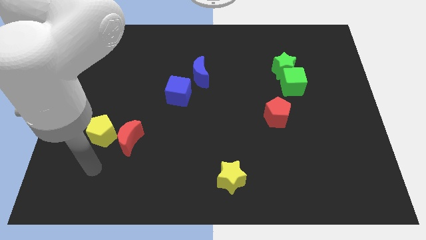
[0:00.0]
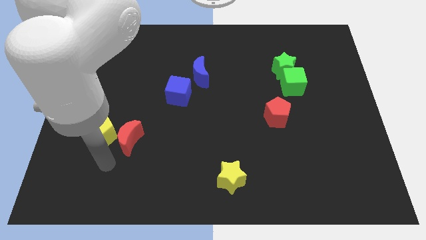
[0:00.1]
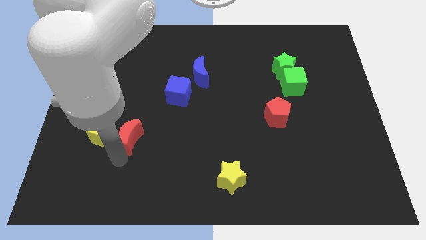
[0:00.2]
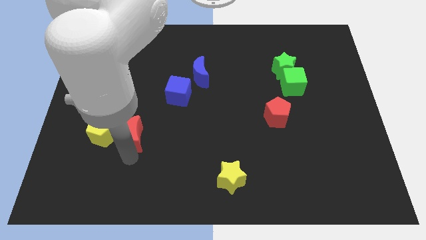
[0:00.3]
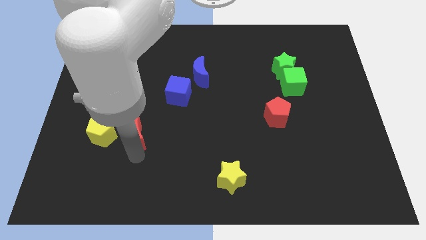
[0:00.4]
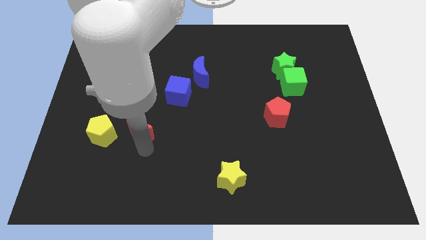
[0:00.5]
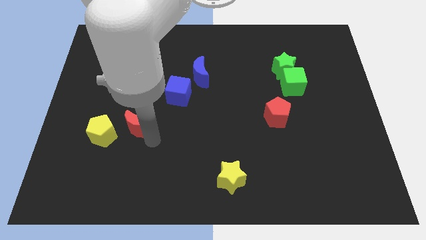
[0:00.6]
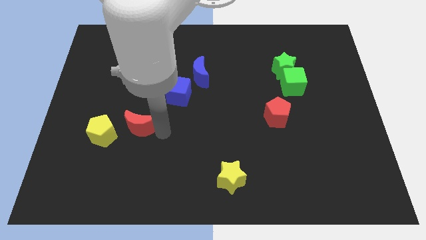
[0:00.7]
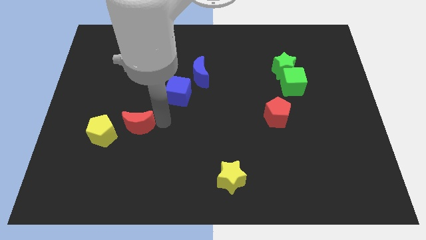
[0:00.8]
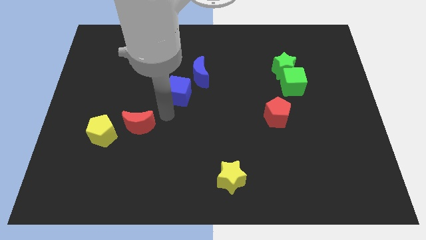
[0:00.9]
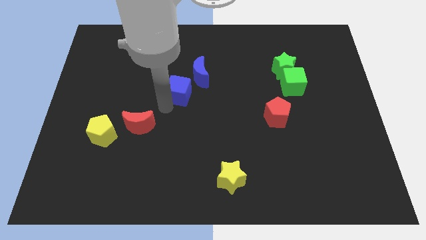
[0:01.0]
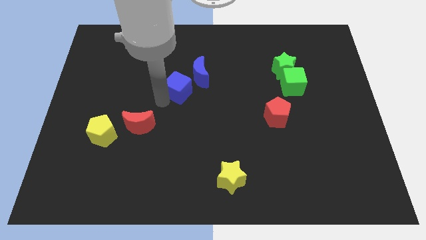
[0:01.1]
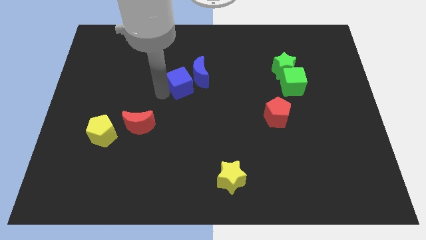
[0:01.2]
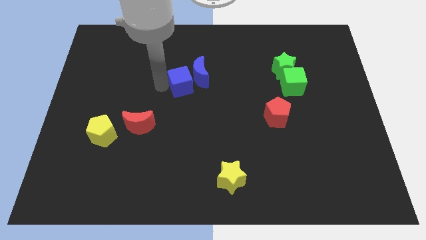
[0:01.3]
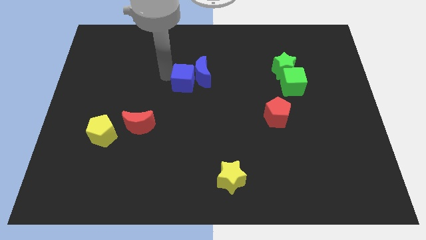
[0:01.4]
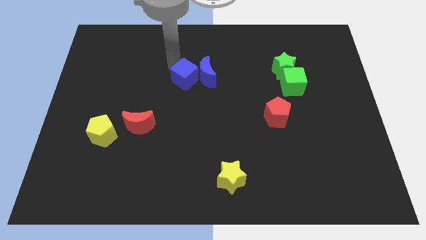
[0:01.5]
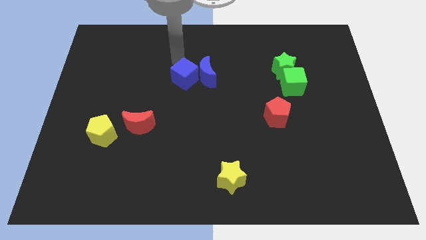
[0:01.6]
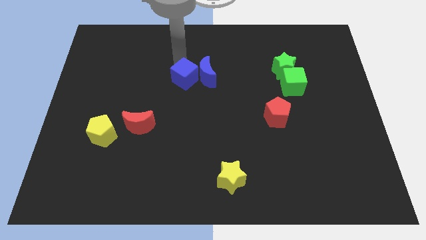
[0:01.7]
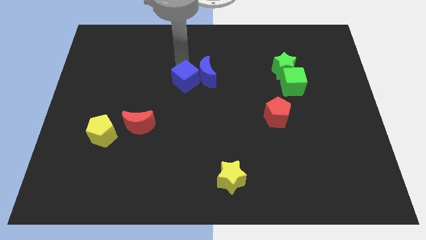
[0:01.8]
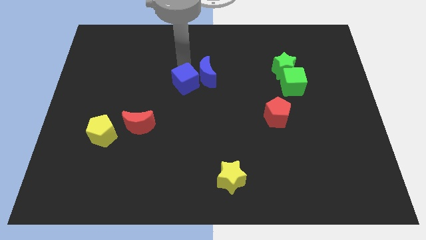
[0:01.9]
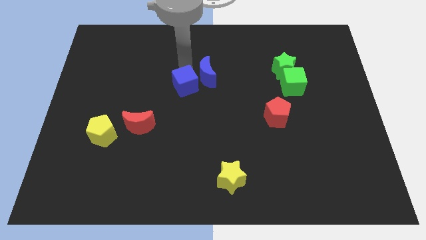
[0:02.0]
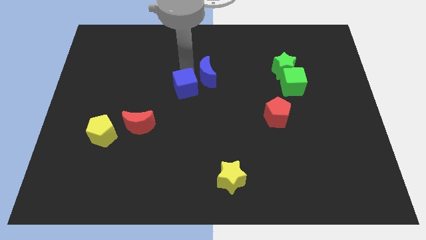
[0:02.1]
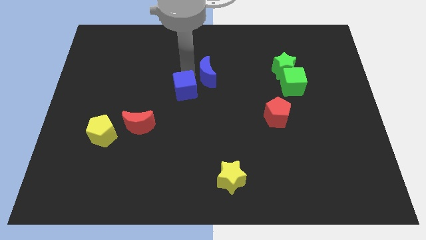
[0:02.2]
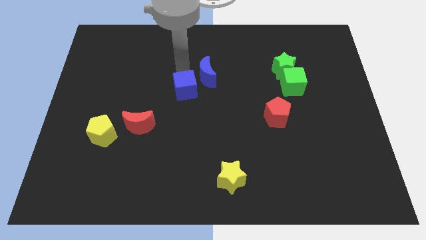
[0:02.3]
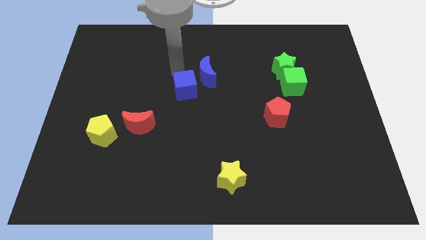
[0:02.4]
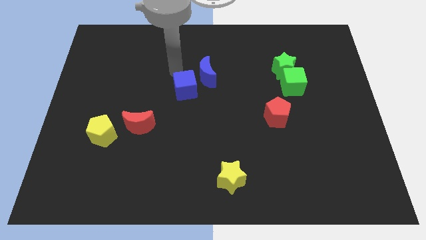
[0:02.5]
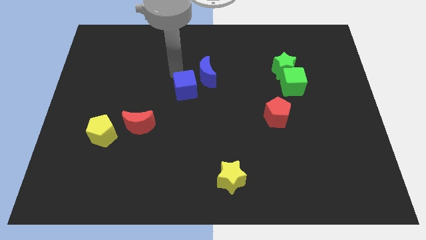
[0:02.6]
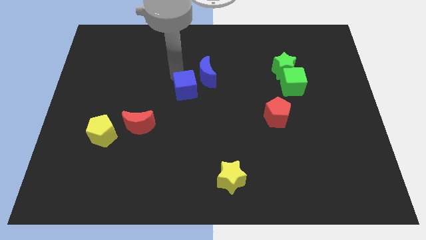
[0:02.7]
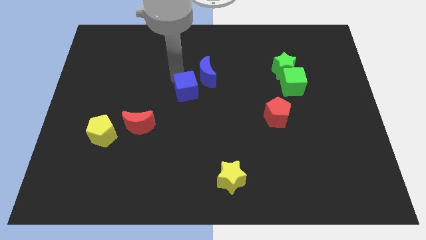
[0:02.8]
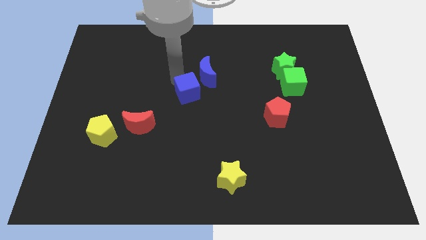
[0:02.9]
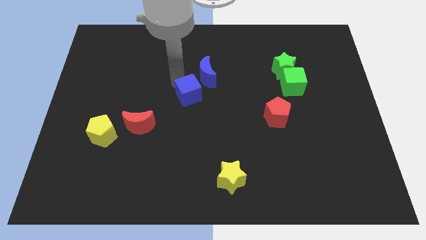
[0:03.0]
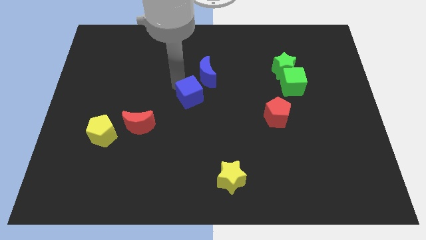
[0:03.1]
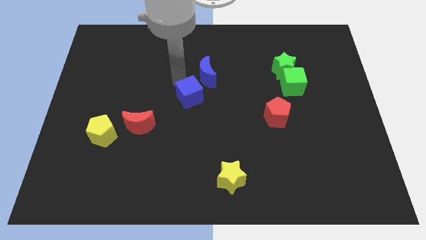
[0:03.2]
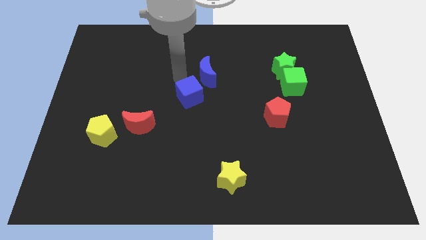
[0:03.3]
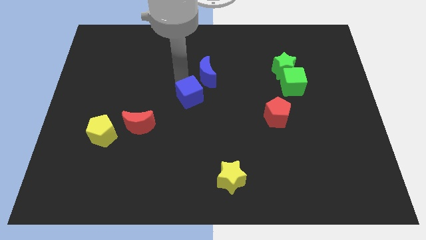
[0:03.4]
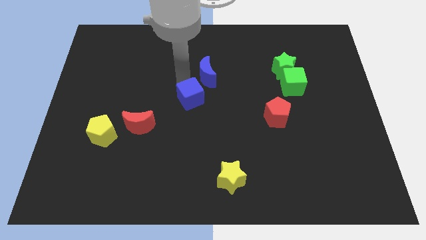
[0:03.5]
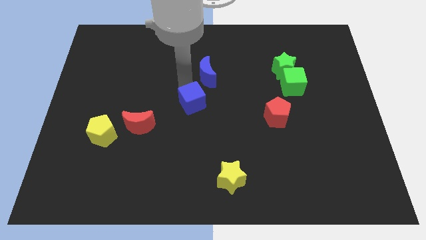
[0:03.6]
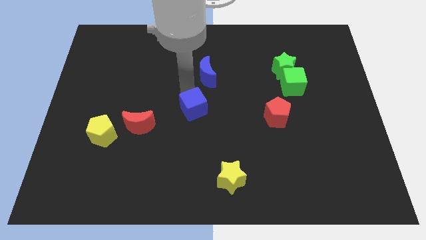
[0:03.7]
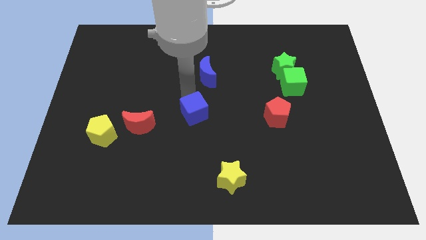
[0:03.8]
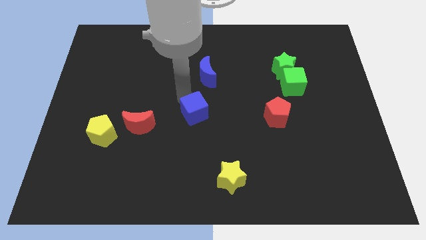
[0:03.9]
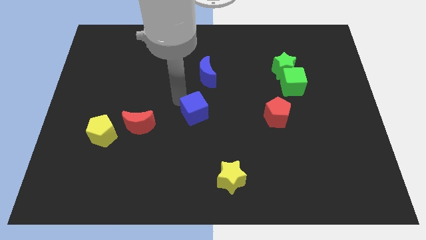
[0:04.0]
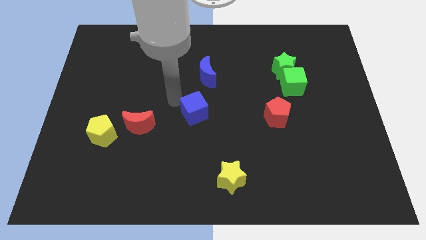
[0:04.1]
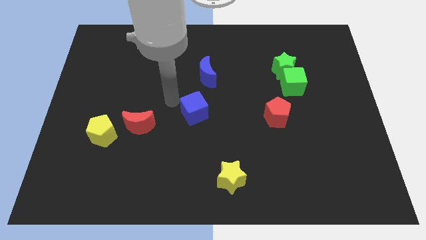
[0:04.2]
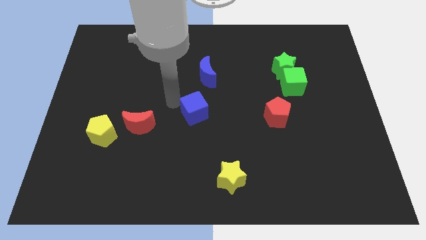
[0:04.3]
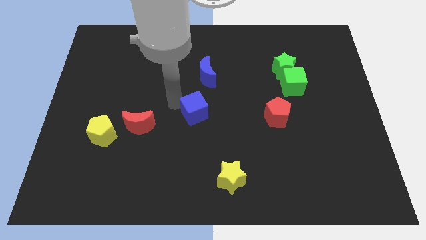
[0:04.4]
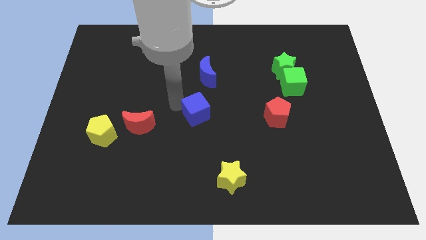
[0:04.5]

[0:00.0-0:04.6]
move the blue cube a little downwards and right

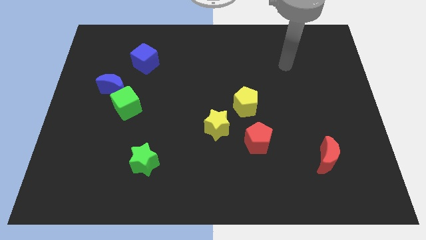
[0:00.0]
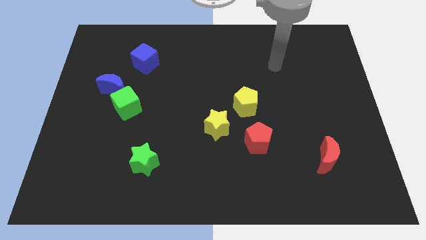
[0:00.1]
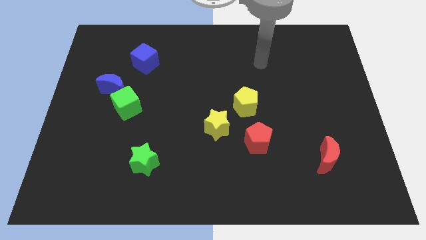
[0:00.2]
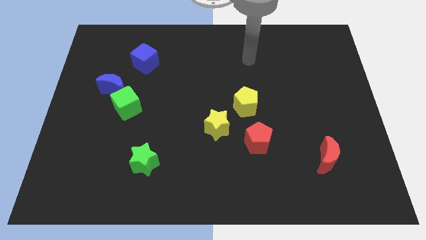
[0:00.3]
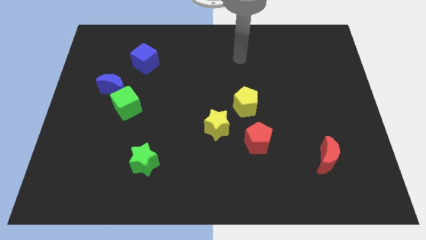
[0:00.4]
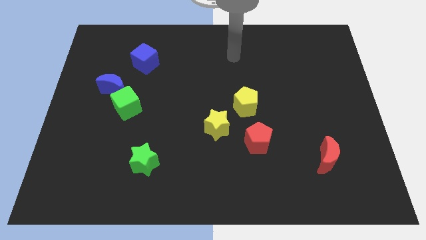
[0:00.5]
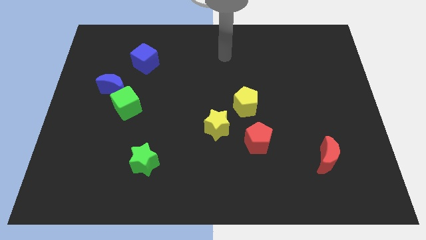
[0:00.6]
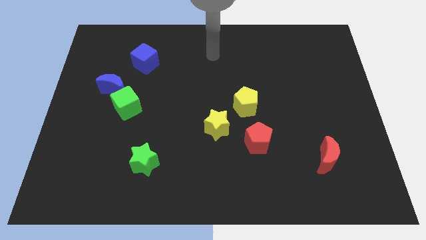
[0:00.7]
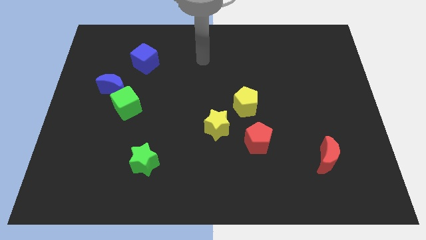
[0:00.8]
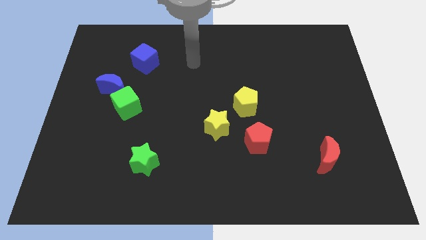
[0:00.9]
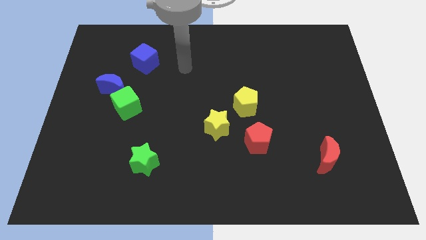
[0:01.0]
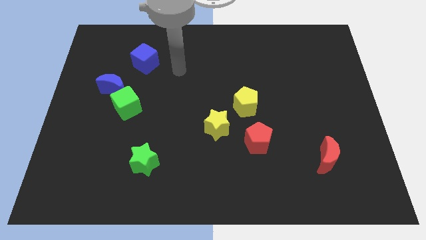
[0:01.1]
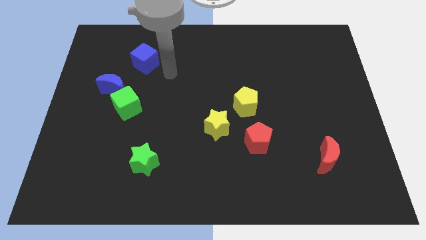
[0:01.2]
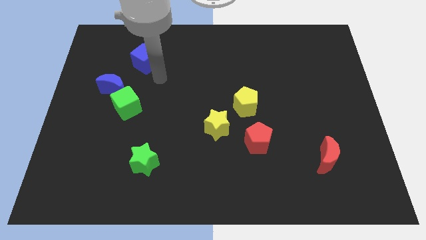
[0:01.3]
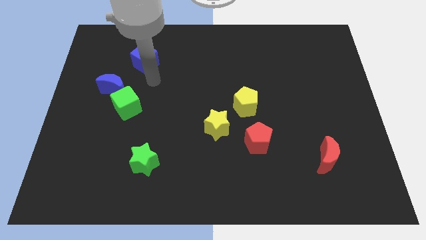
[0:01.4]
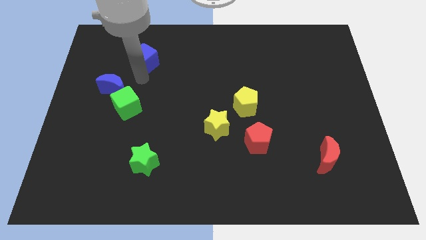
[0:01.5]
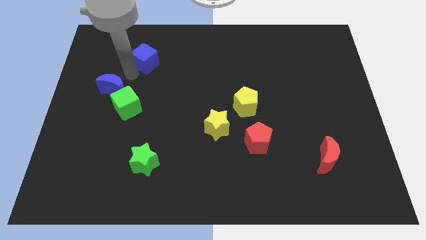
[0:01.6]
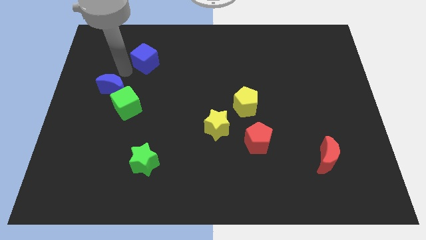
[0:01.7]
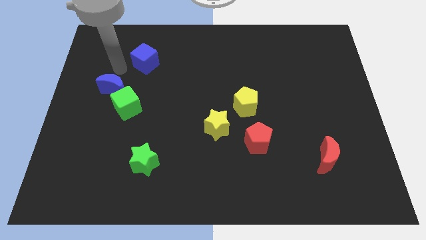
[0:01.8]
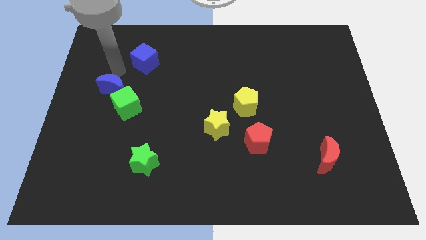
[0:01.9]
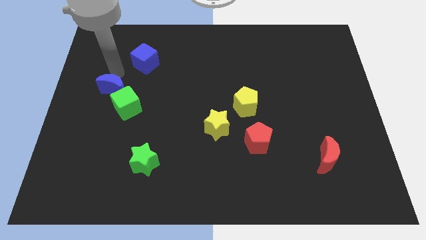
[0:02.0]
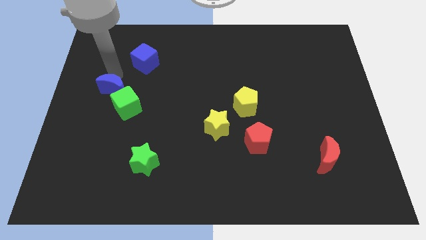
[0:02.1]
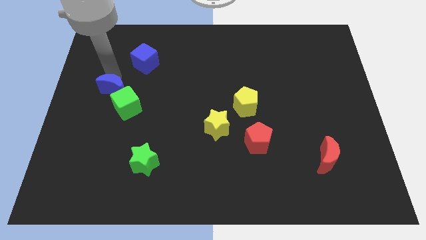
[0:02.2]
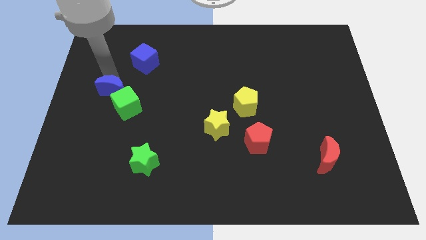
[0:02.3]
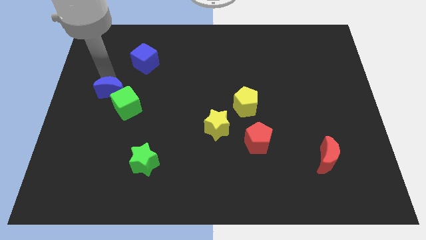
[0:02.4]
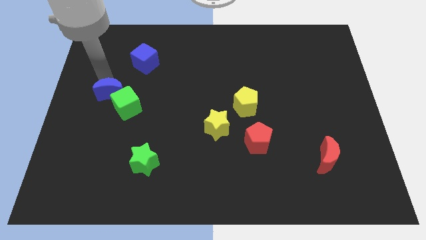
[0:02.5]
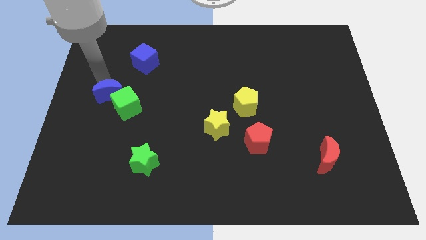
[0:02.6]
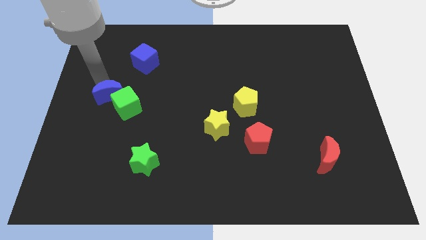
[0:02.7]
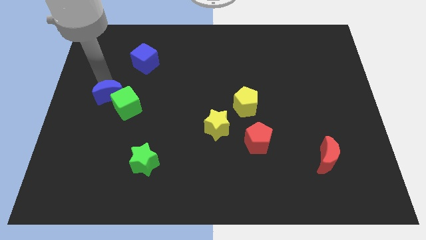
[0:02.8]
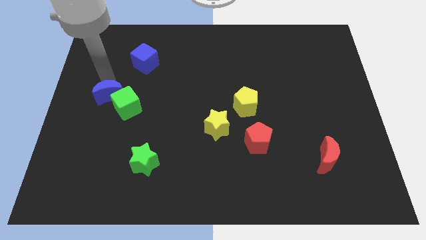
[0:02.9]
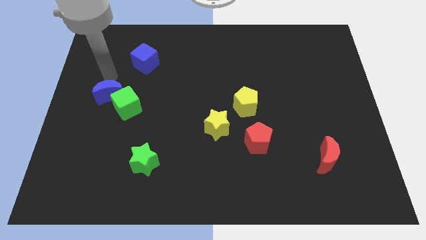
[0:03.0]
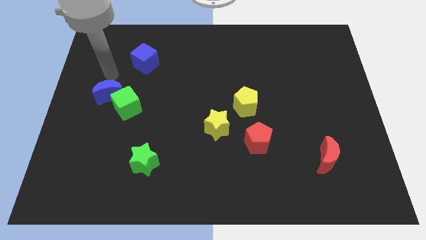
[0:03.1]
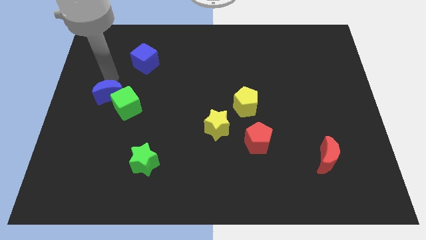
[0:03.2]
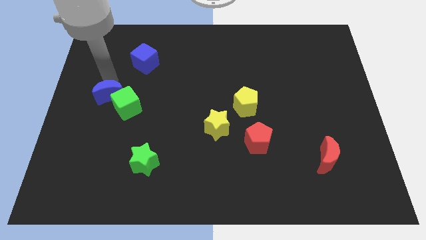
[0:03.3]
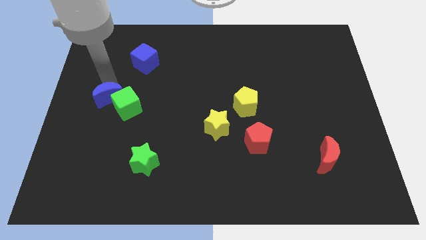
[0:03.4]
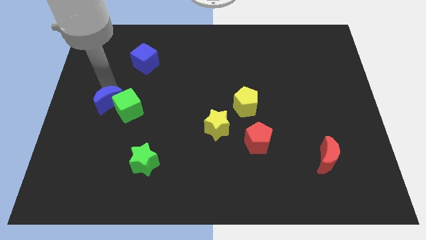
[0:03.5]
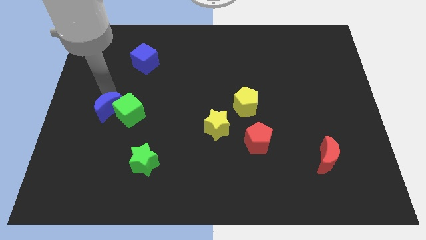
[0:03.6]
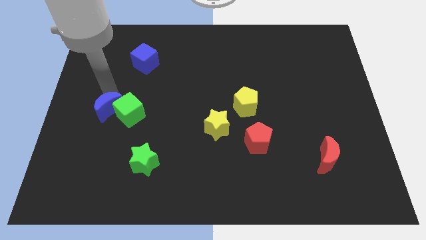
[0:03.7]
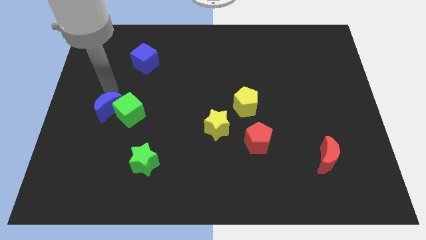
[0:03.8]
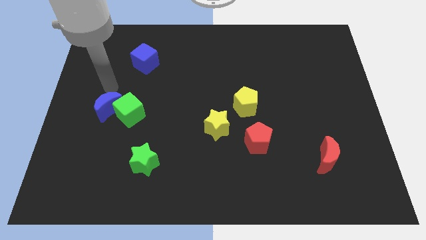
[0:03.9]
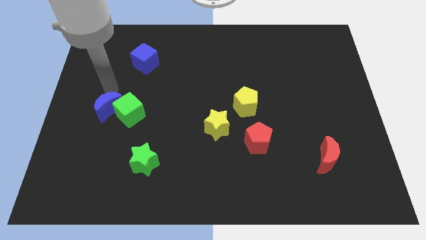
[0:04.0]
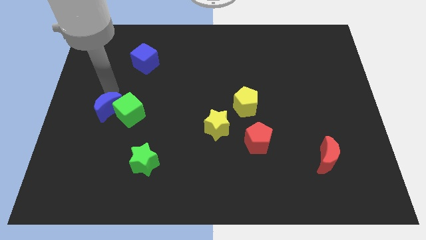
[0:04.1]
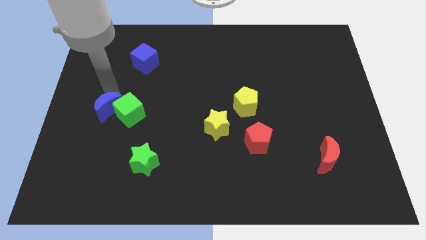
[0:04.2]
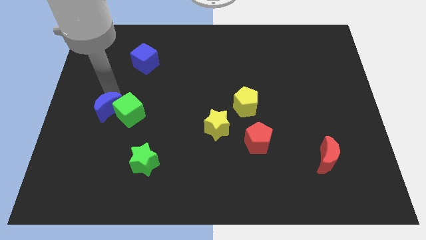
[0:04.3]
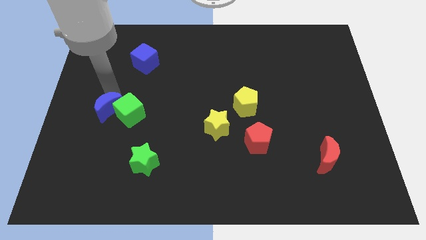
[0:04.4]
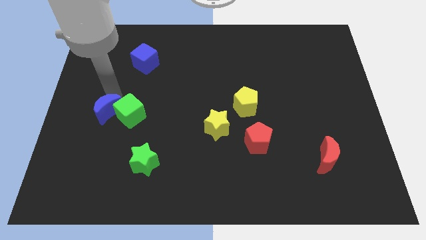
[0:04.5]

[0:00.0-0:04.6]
slightly slide the blue moon downwards
